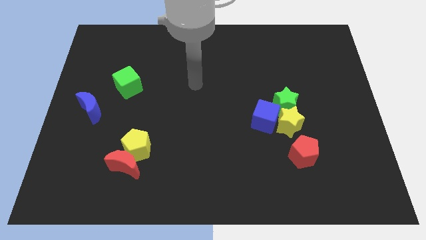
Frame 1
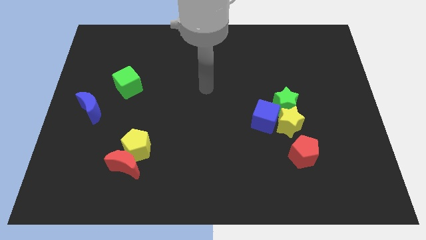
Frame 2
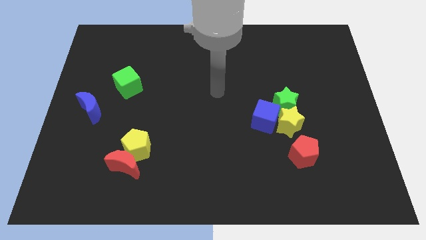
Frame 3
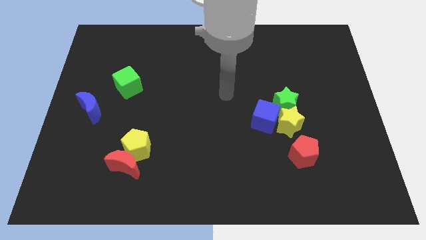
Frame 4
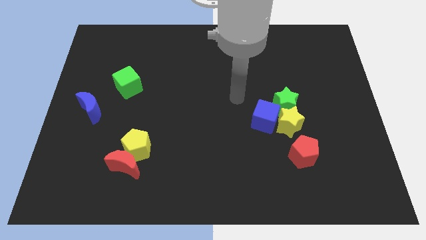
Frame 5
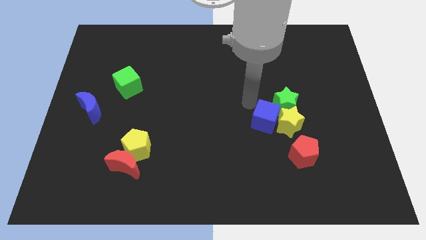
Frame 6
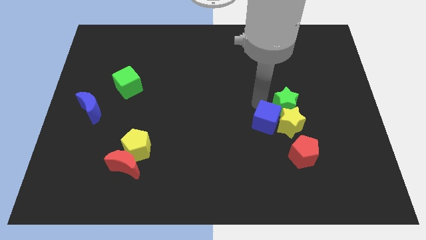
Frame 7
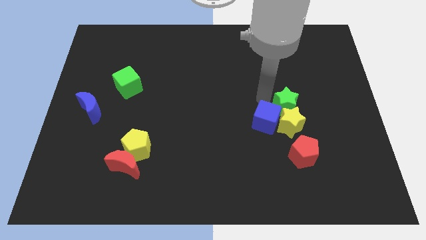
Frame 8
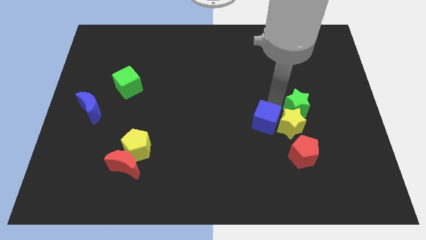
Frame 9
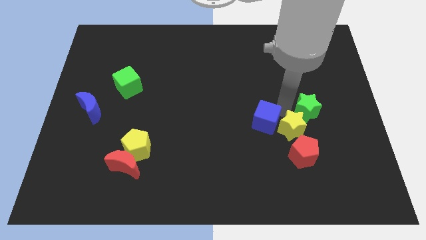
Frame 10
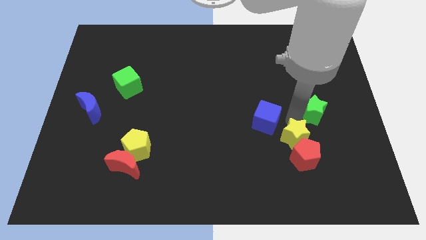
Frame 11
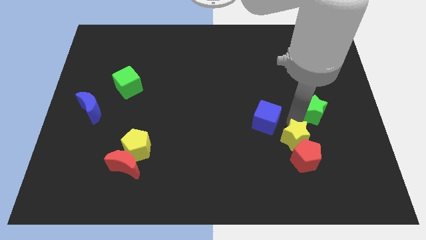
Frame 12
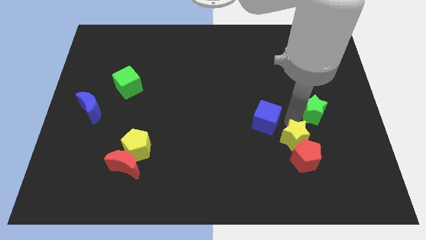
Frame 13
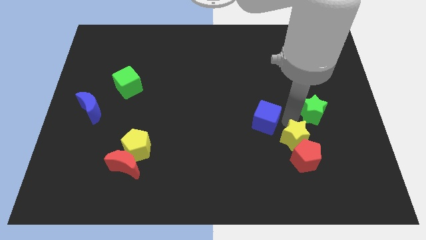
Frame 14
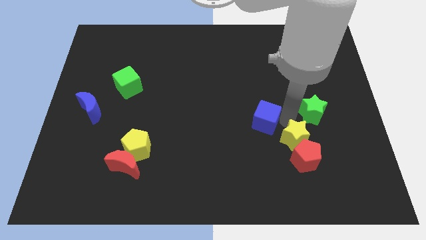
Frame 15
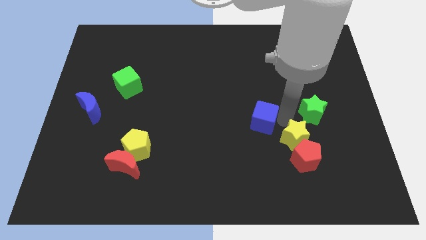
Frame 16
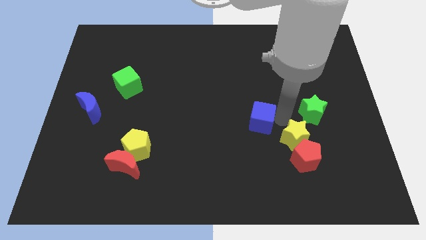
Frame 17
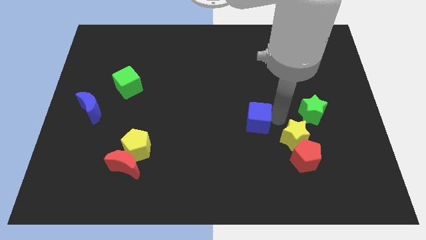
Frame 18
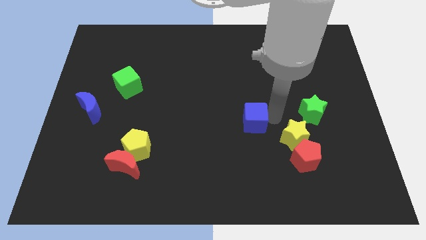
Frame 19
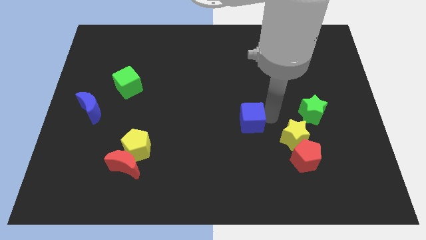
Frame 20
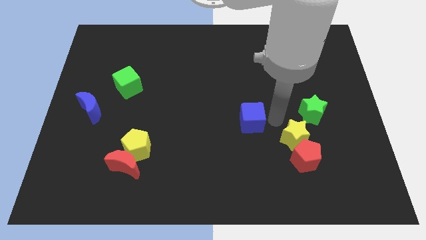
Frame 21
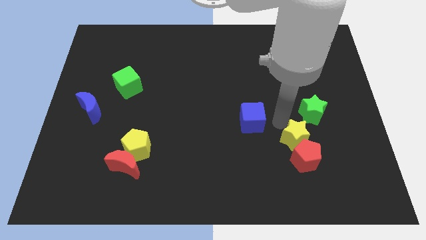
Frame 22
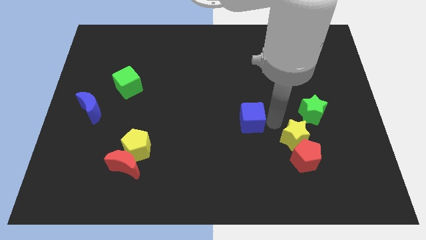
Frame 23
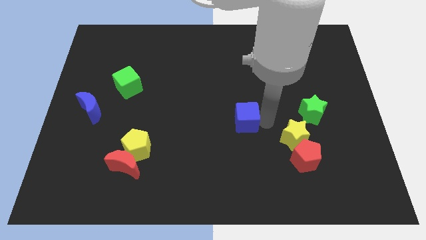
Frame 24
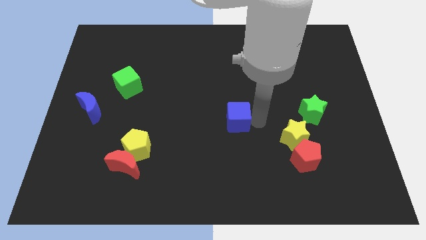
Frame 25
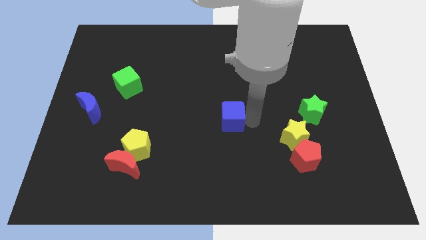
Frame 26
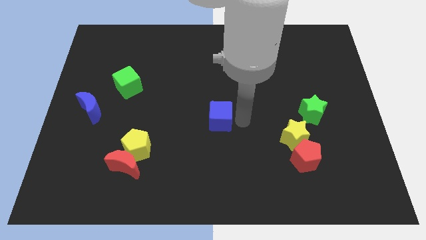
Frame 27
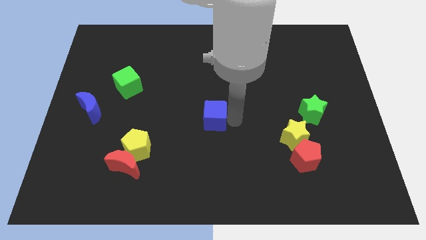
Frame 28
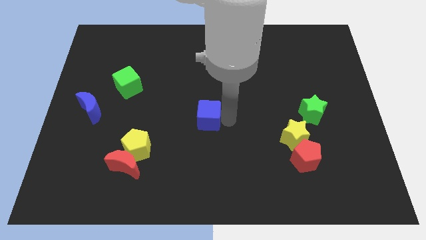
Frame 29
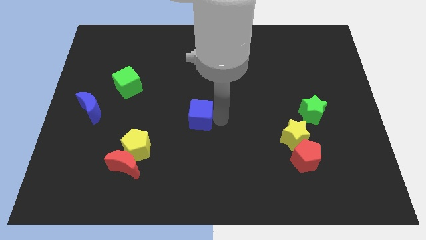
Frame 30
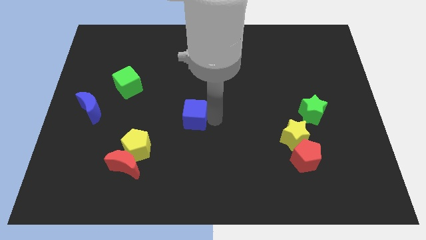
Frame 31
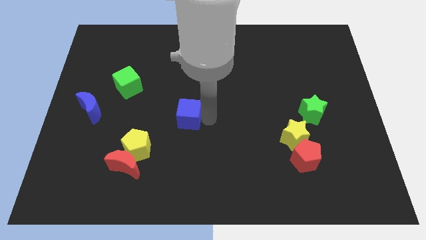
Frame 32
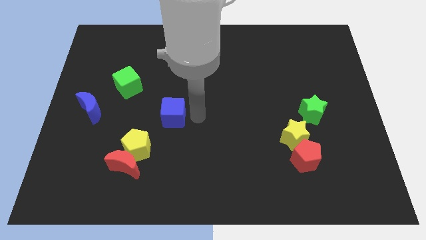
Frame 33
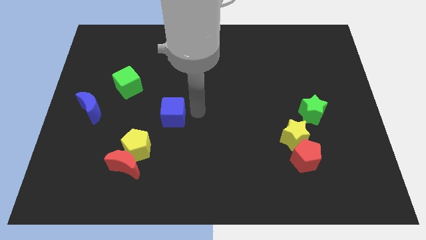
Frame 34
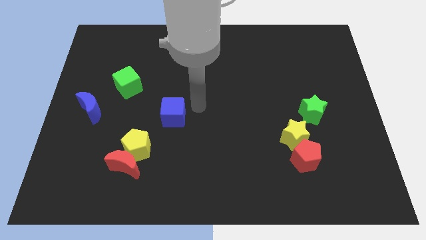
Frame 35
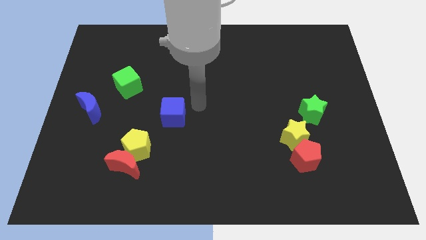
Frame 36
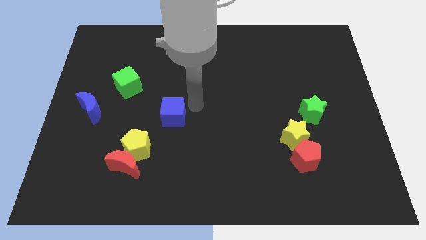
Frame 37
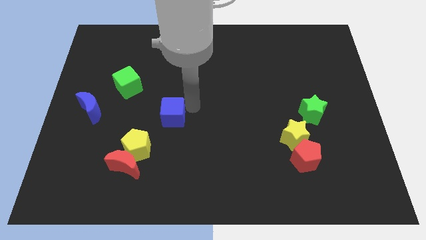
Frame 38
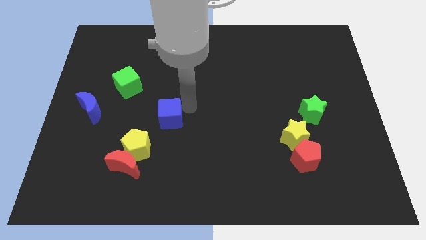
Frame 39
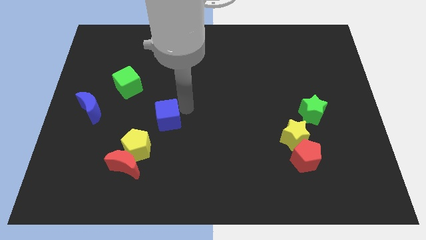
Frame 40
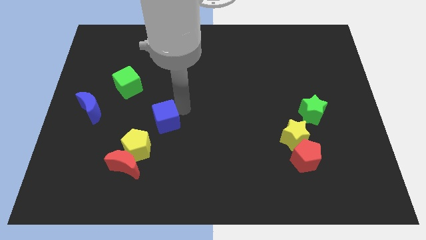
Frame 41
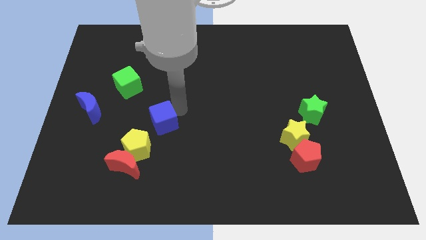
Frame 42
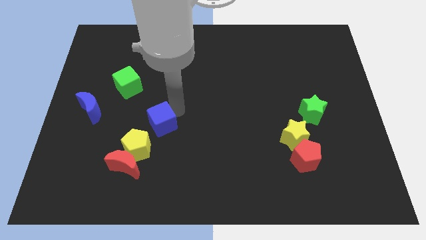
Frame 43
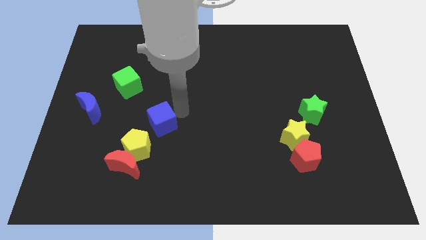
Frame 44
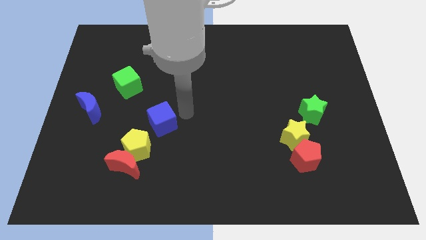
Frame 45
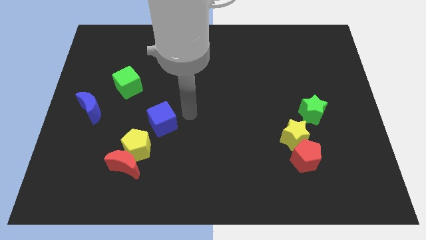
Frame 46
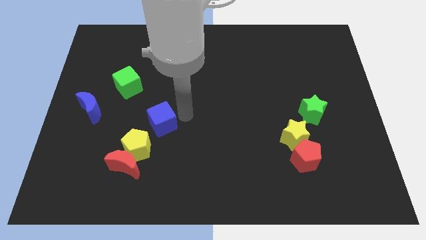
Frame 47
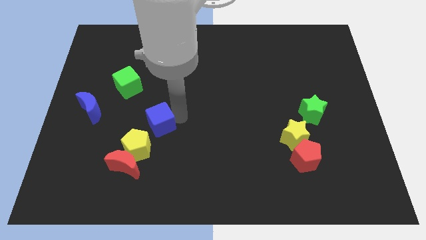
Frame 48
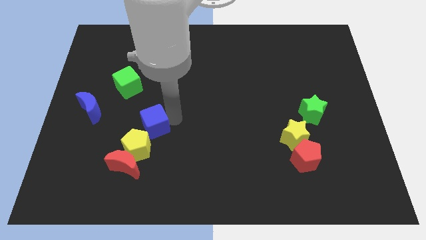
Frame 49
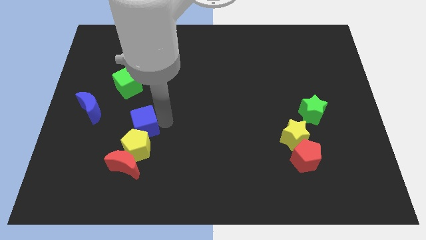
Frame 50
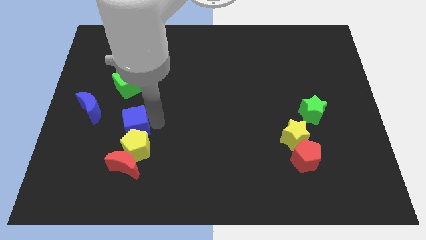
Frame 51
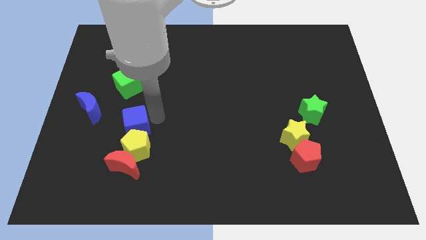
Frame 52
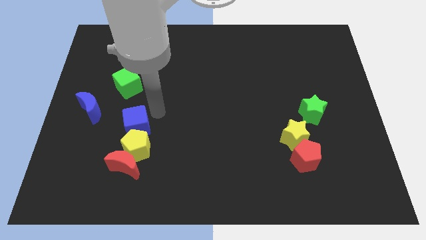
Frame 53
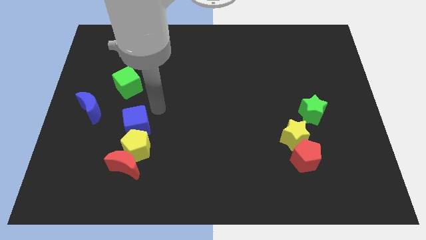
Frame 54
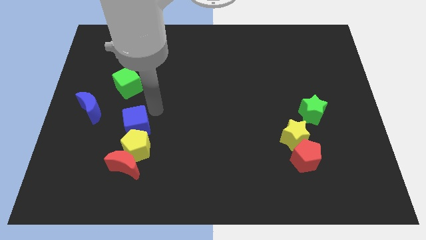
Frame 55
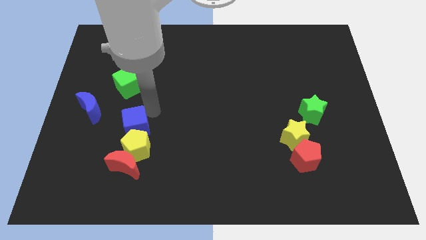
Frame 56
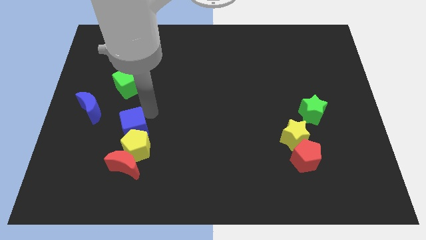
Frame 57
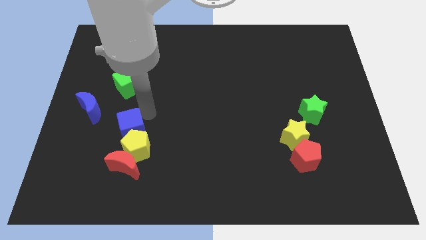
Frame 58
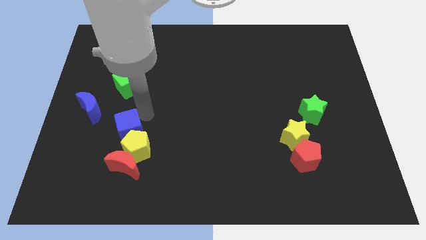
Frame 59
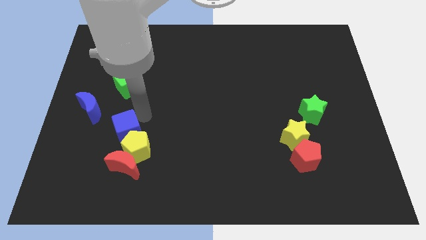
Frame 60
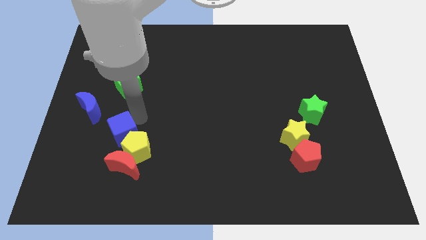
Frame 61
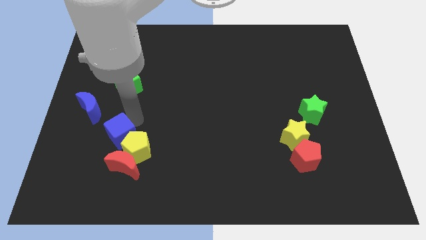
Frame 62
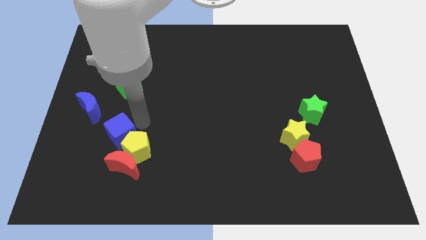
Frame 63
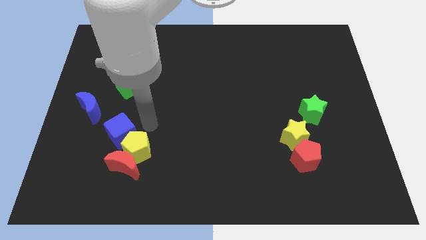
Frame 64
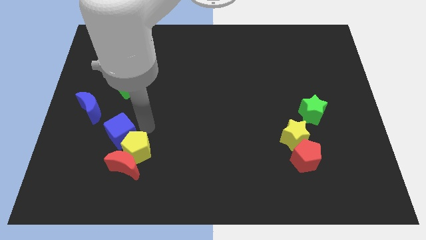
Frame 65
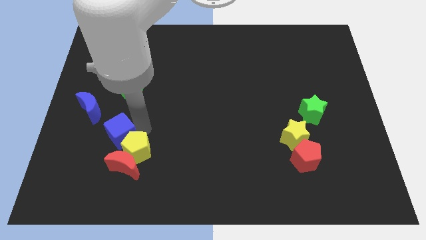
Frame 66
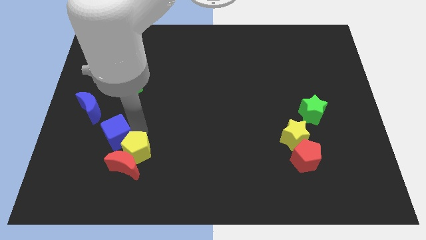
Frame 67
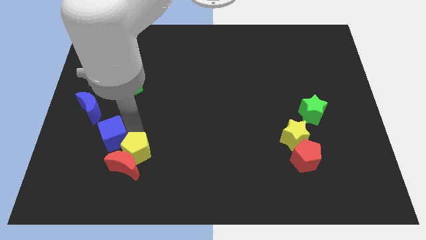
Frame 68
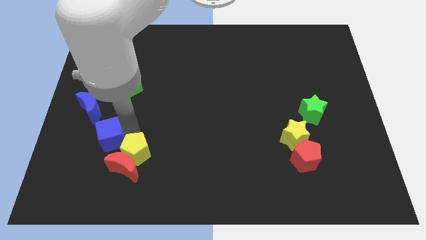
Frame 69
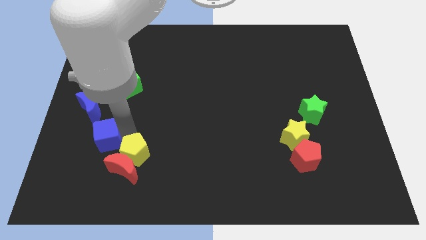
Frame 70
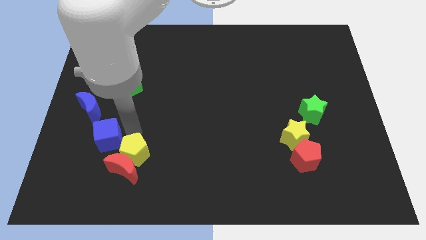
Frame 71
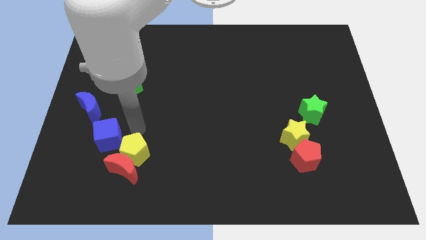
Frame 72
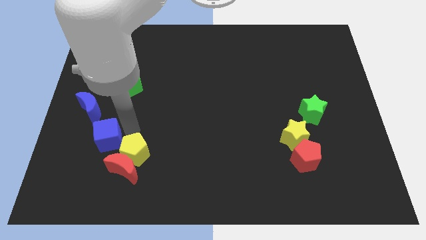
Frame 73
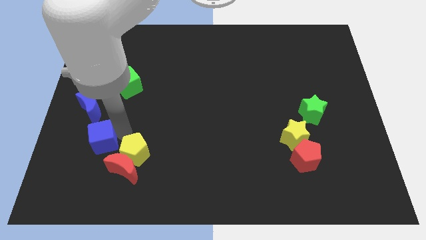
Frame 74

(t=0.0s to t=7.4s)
put the blue cube to the bottom of the blue moon
